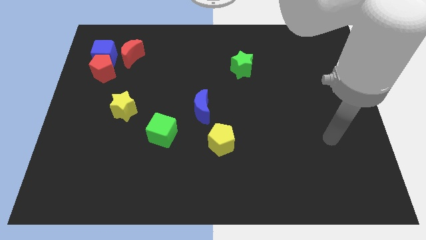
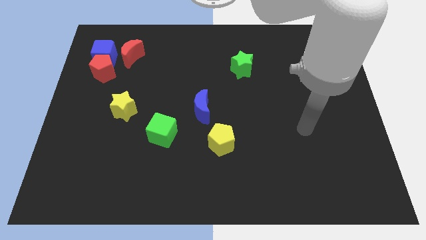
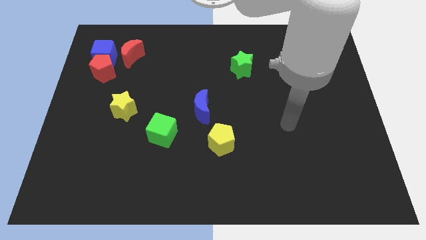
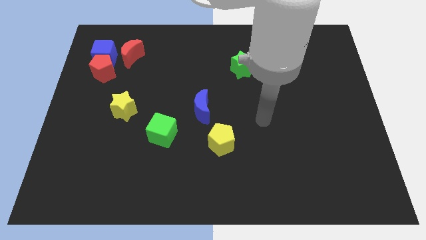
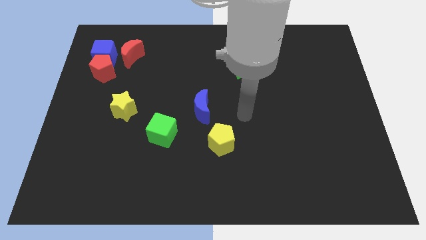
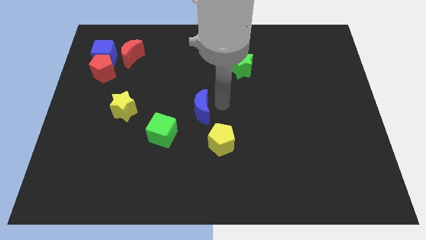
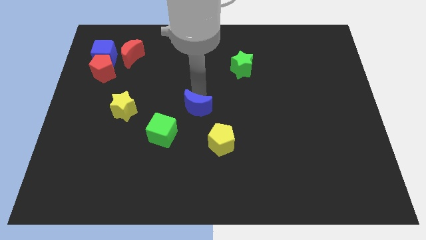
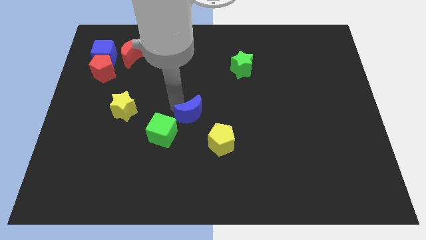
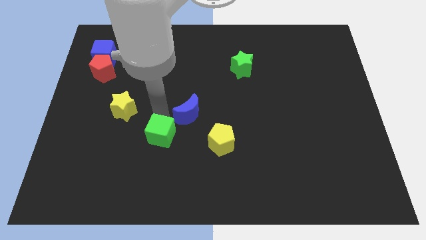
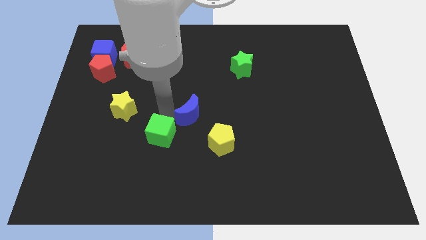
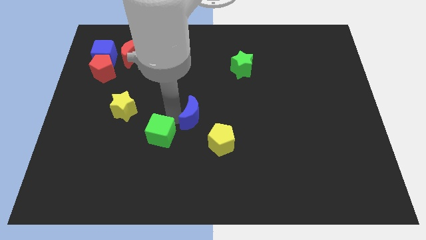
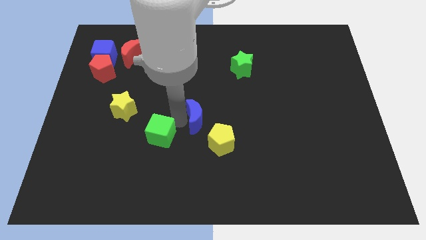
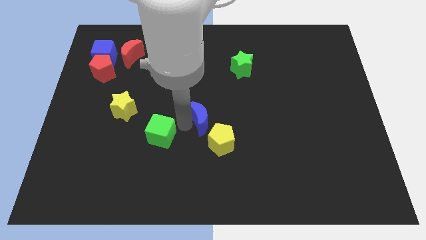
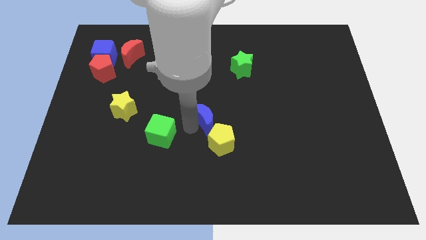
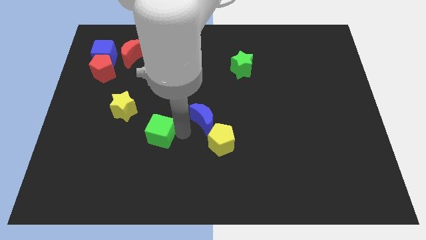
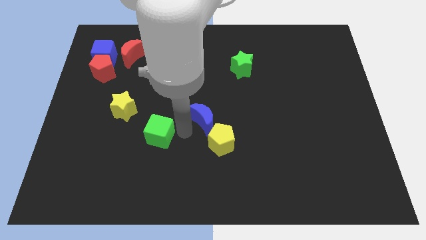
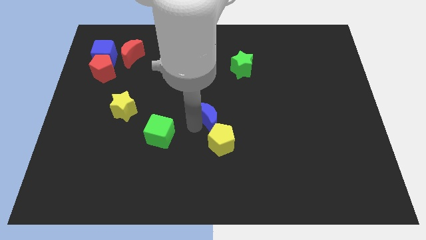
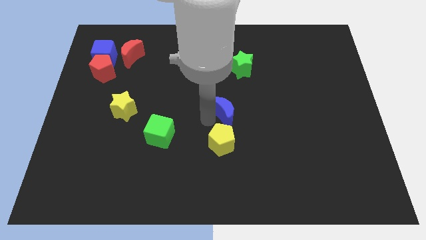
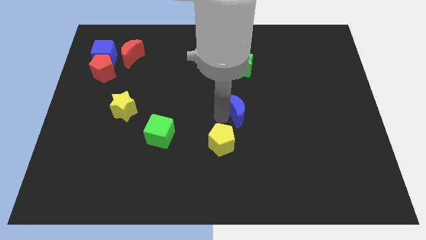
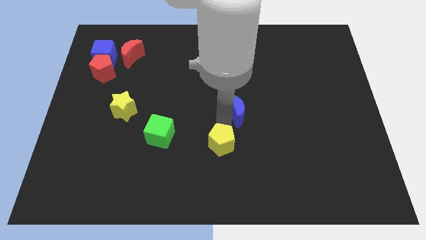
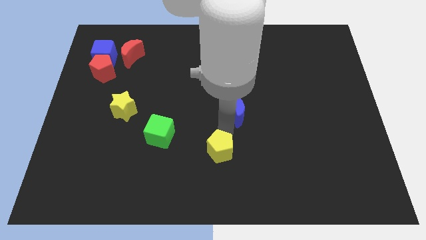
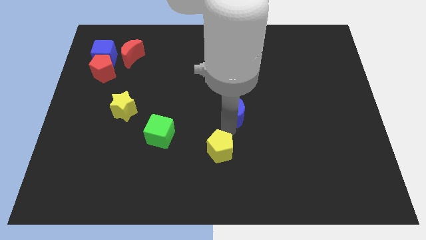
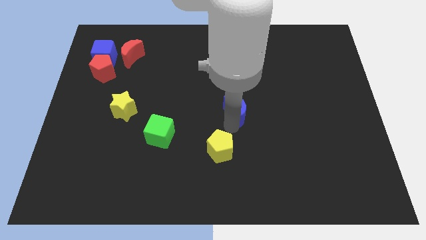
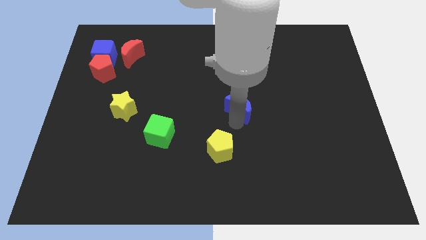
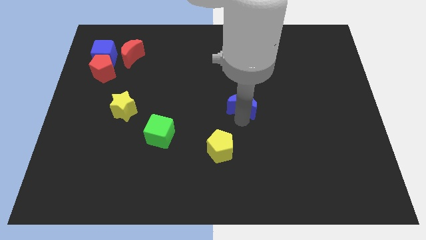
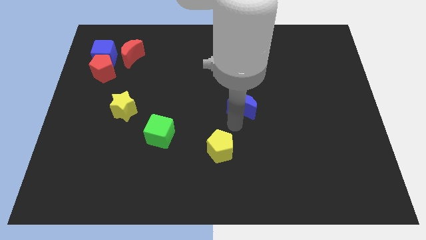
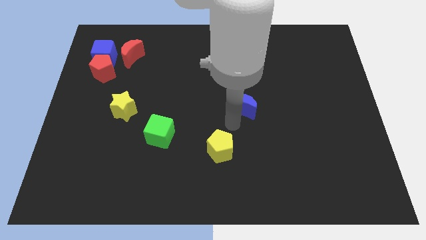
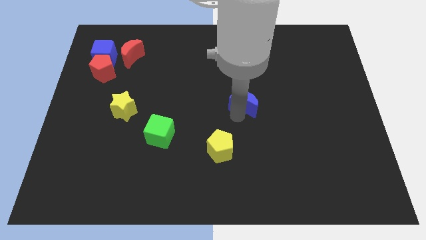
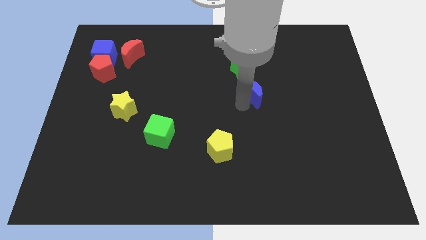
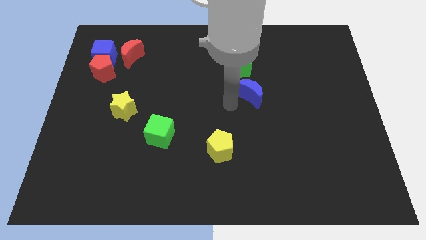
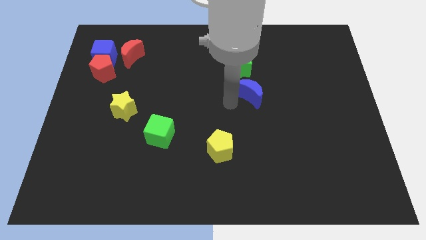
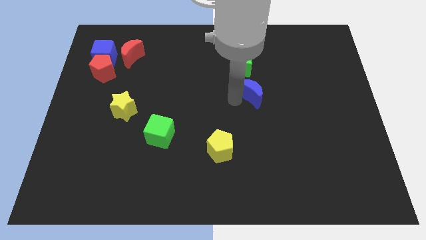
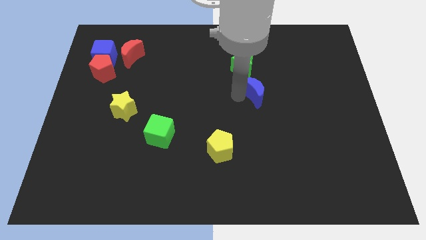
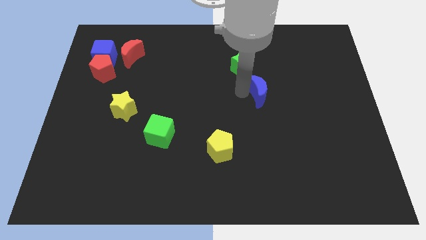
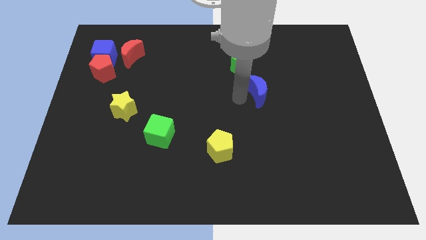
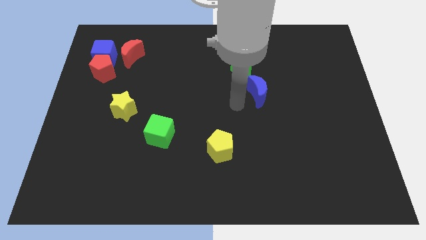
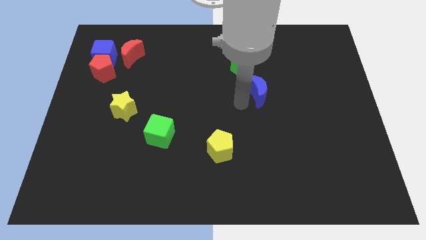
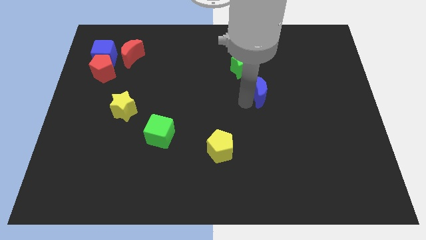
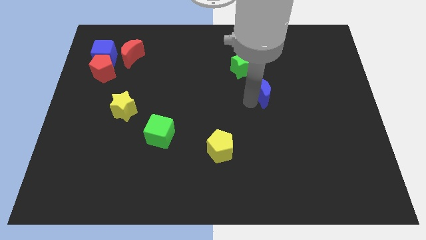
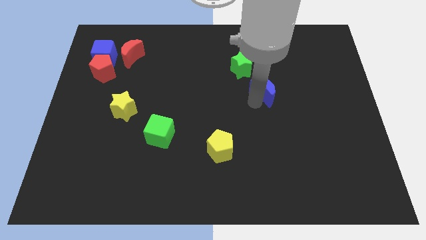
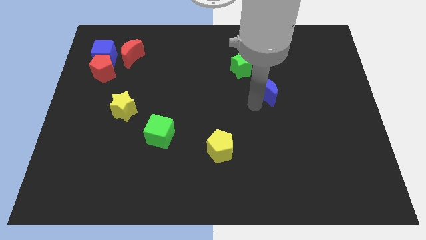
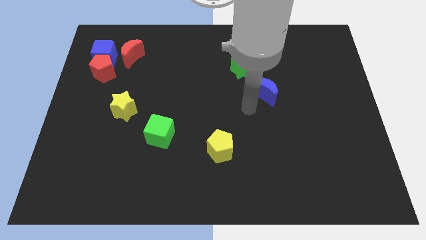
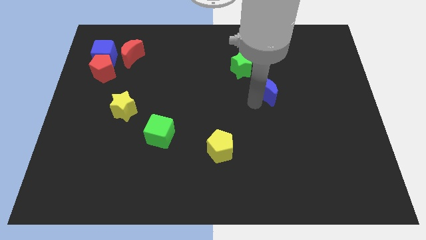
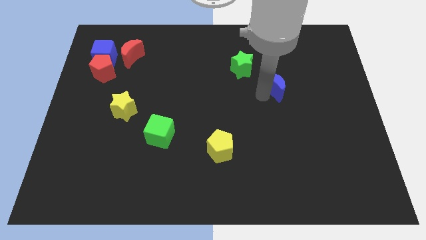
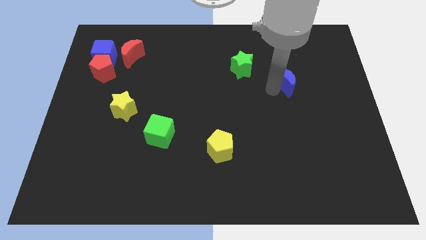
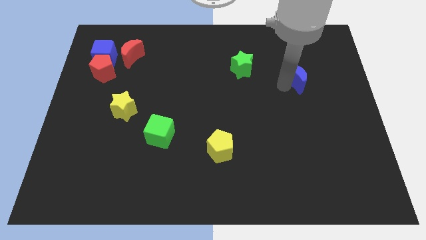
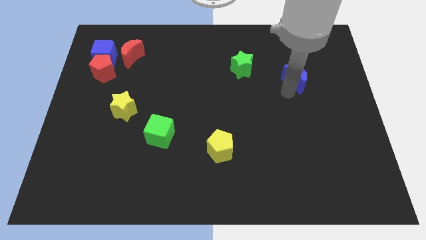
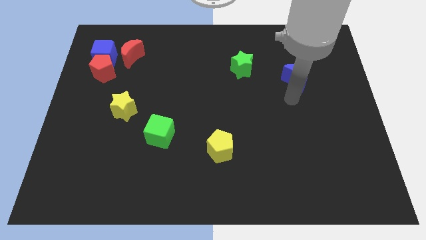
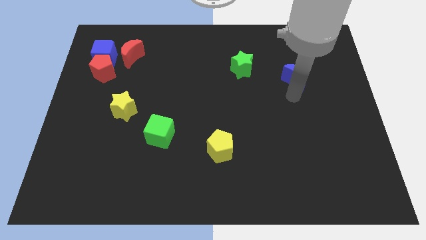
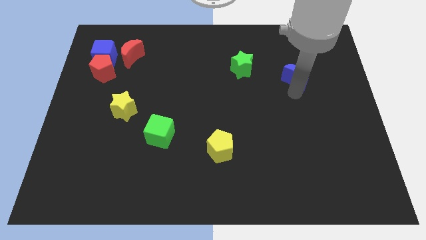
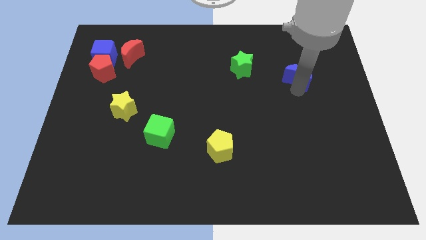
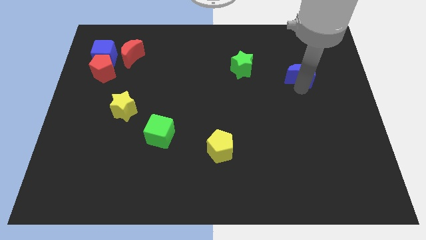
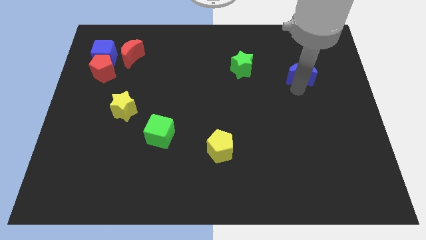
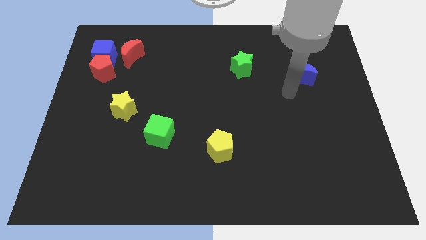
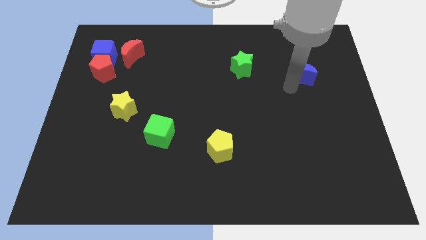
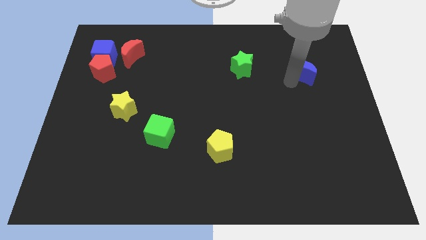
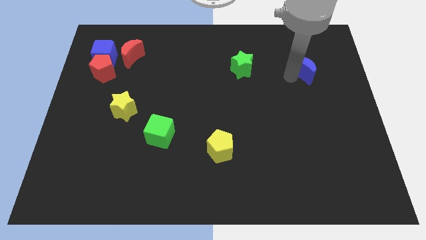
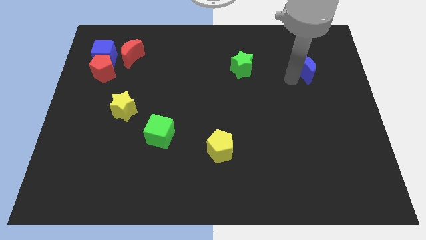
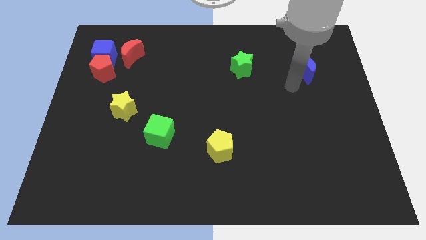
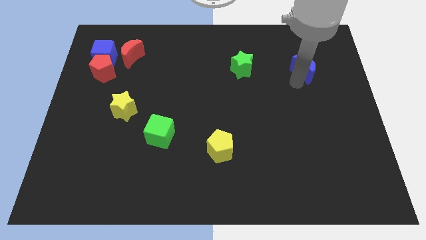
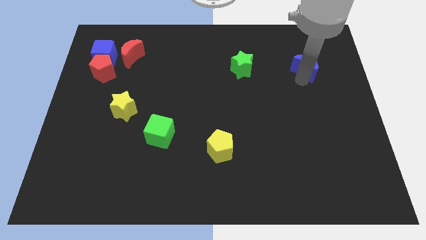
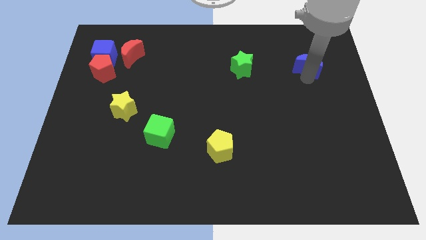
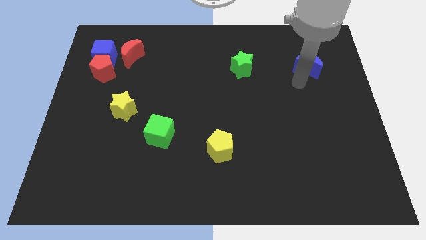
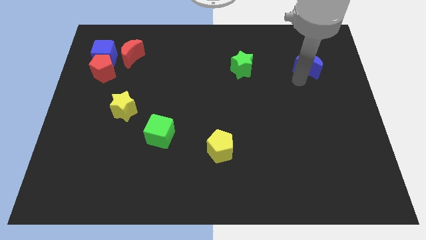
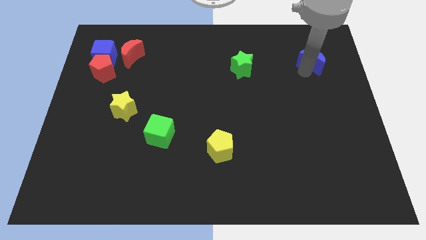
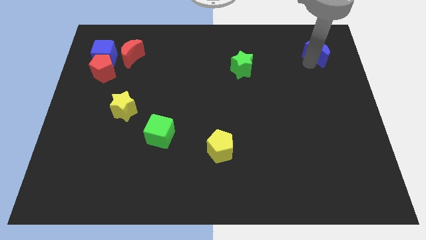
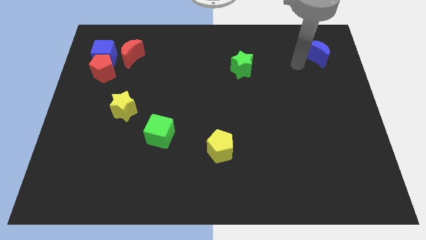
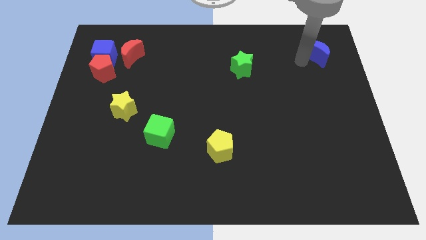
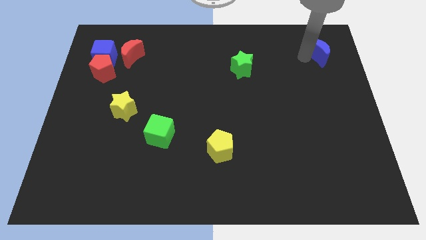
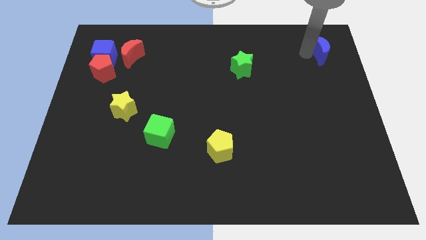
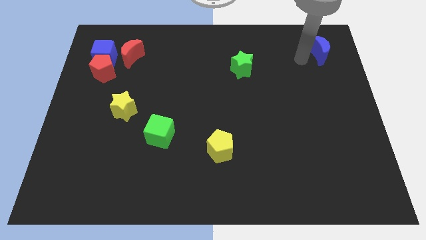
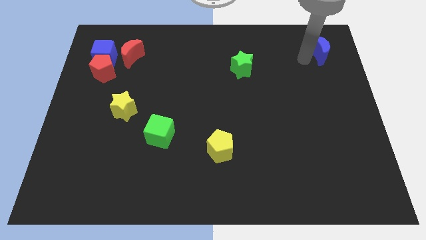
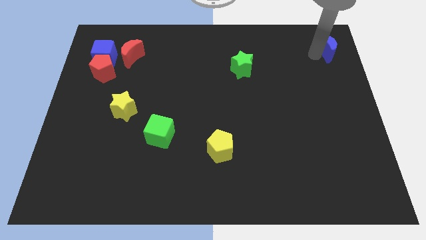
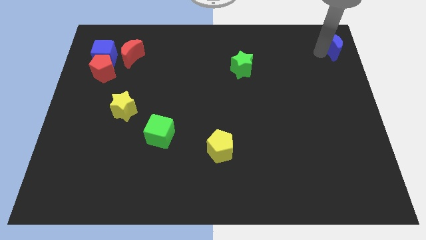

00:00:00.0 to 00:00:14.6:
put the blue moon to the top right
